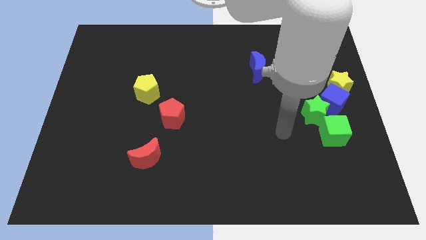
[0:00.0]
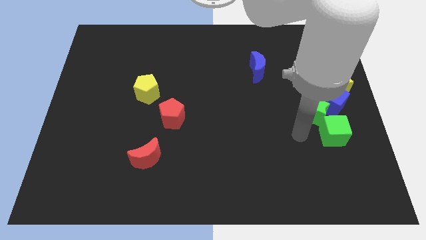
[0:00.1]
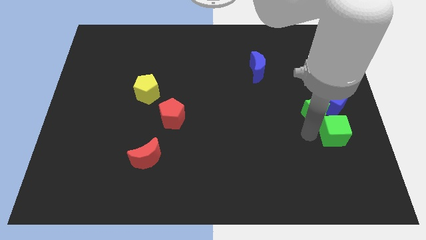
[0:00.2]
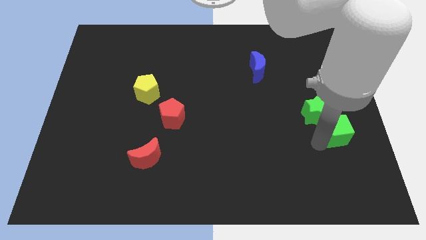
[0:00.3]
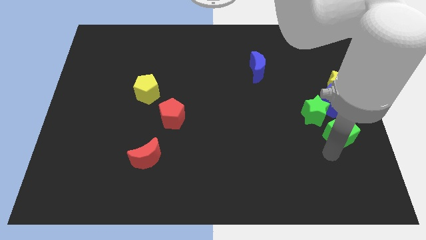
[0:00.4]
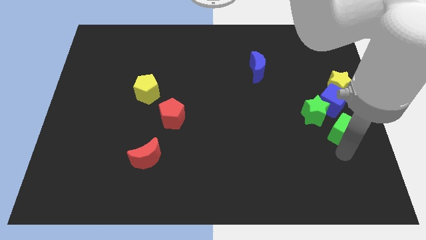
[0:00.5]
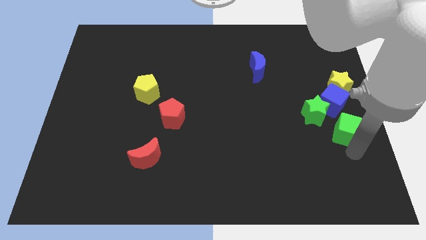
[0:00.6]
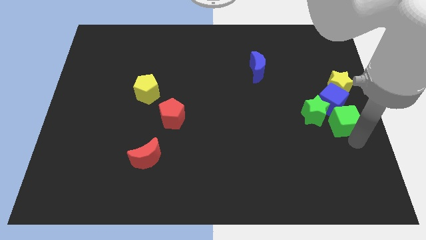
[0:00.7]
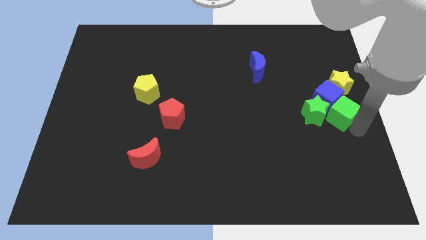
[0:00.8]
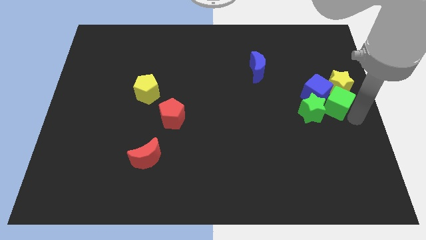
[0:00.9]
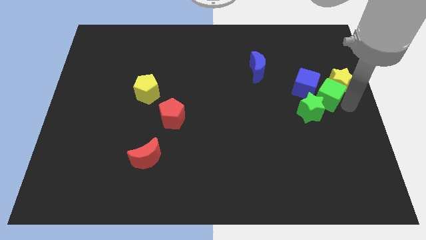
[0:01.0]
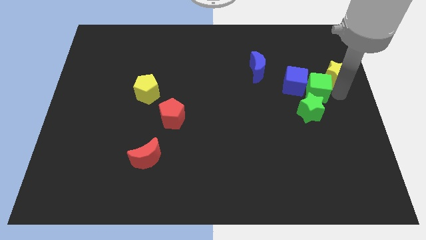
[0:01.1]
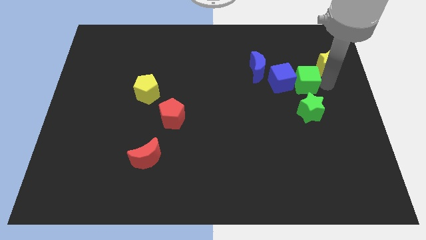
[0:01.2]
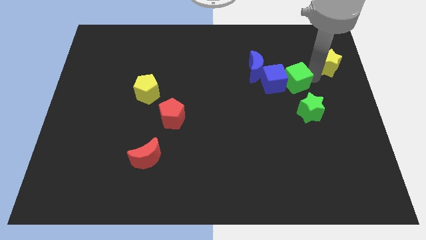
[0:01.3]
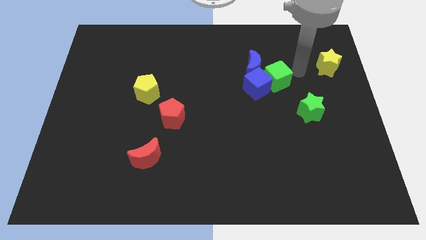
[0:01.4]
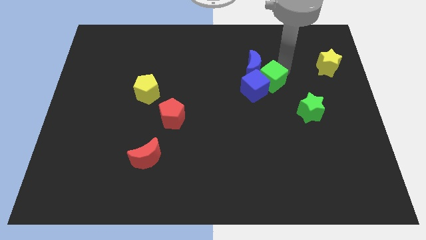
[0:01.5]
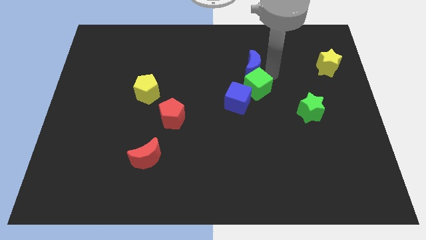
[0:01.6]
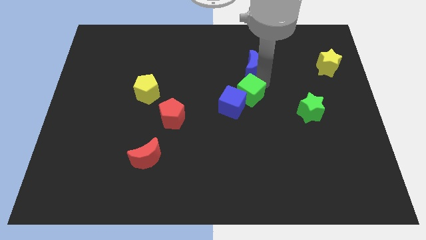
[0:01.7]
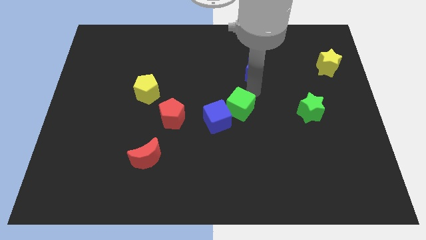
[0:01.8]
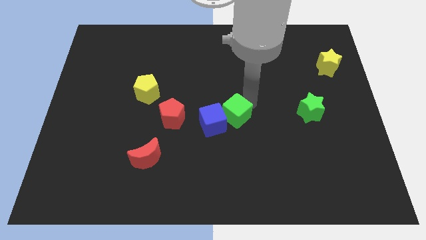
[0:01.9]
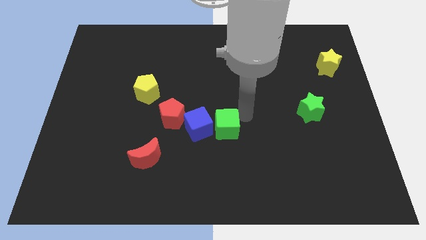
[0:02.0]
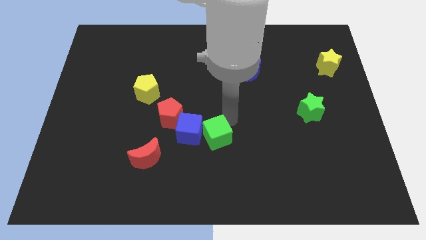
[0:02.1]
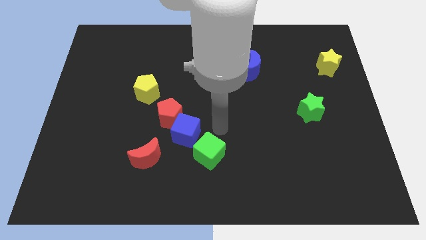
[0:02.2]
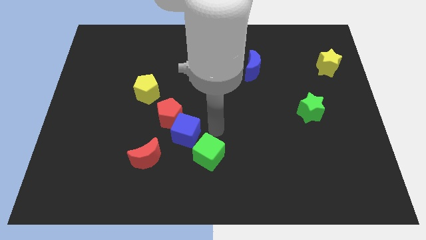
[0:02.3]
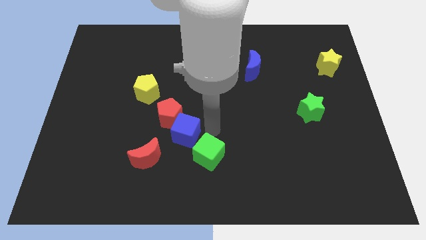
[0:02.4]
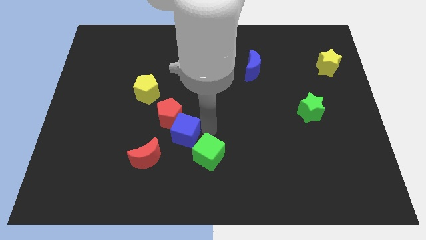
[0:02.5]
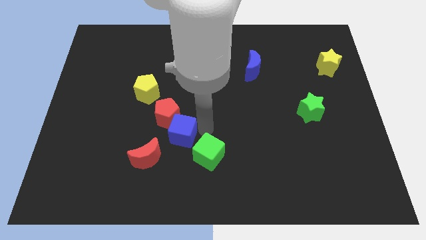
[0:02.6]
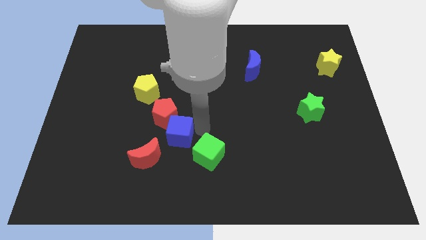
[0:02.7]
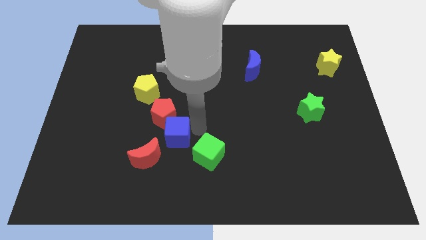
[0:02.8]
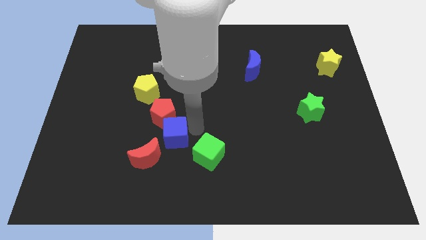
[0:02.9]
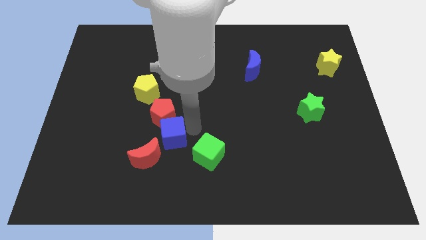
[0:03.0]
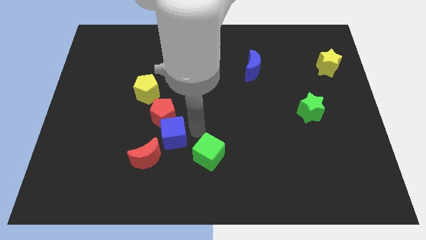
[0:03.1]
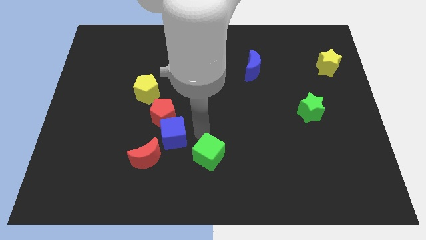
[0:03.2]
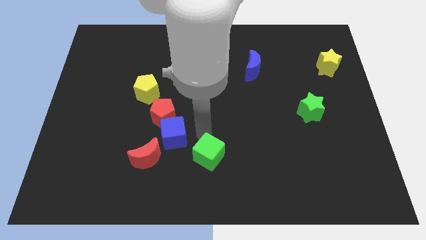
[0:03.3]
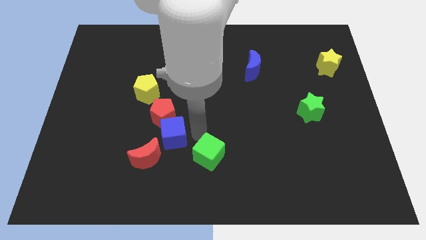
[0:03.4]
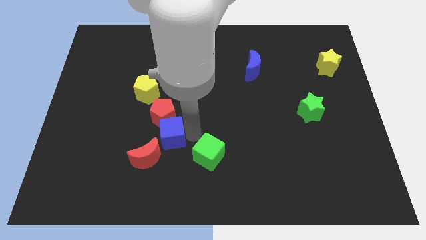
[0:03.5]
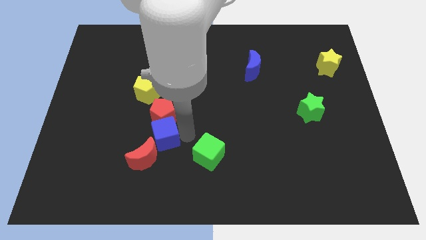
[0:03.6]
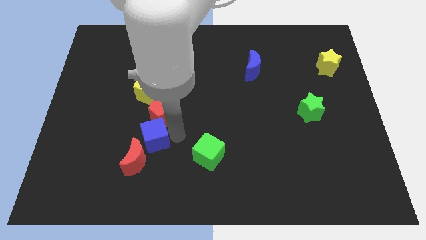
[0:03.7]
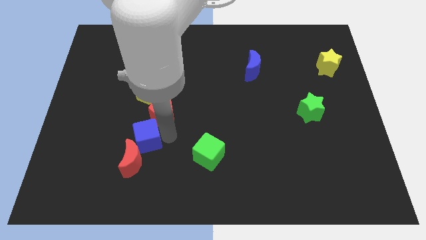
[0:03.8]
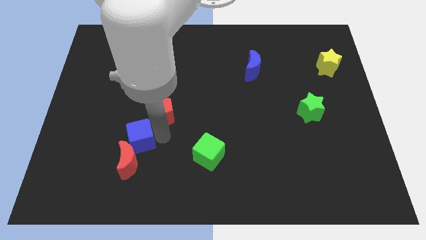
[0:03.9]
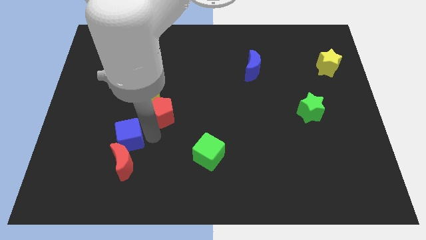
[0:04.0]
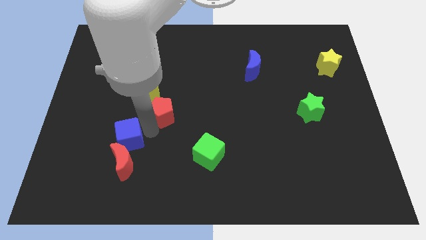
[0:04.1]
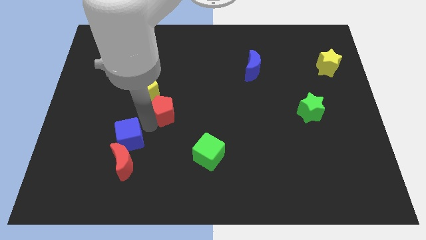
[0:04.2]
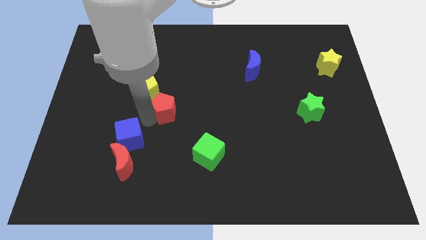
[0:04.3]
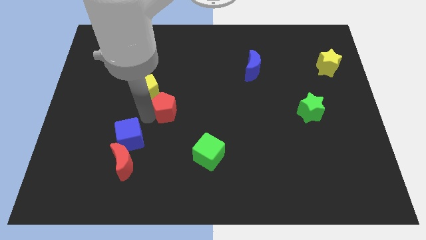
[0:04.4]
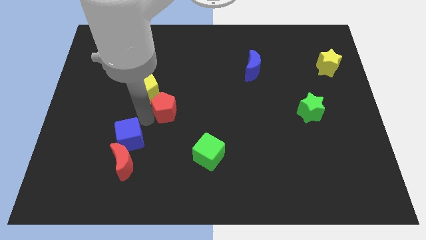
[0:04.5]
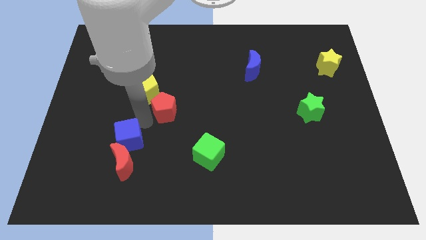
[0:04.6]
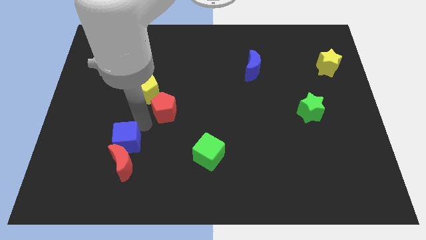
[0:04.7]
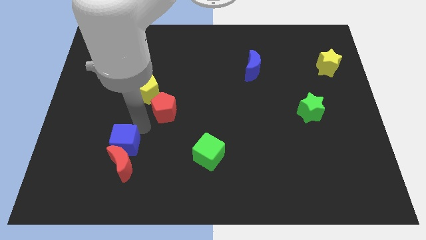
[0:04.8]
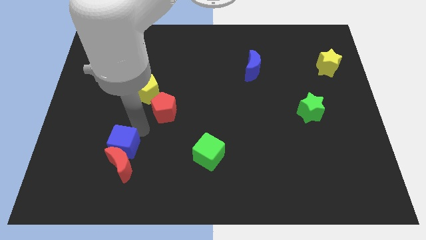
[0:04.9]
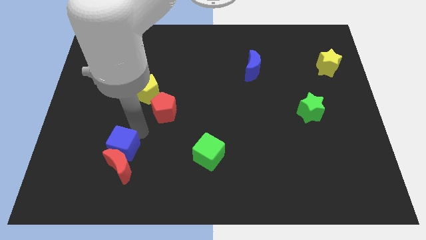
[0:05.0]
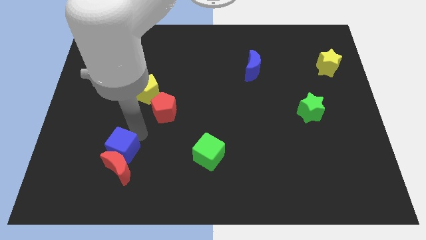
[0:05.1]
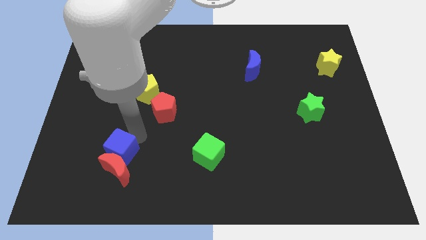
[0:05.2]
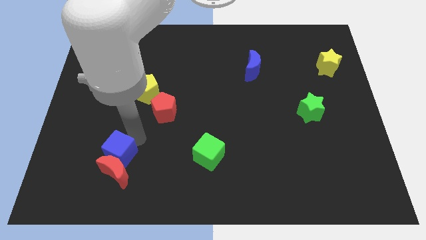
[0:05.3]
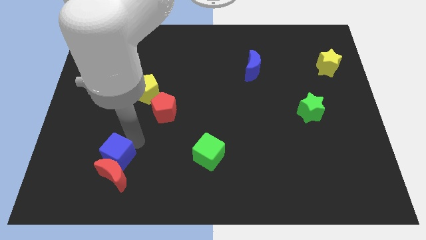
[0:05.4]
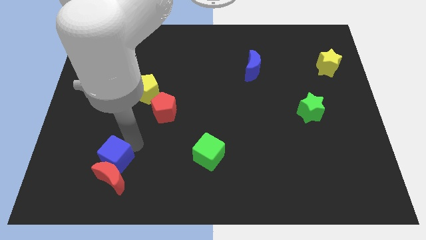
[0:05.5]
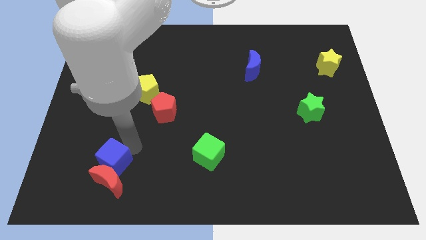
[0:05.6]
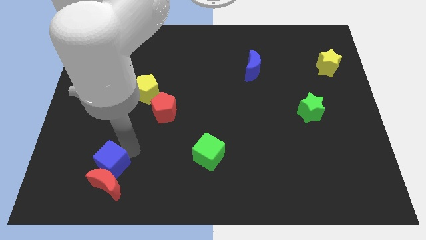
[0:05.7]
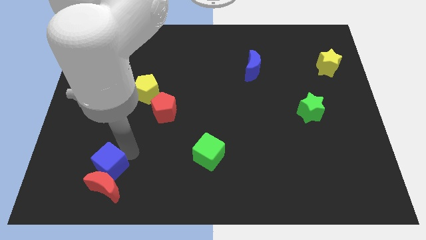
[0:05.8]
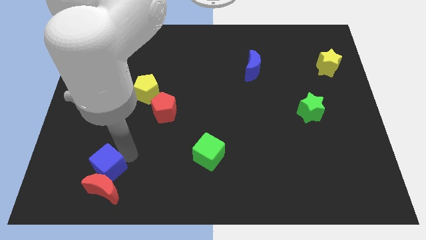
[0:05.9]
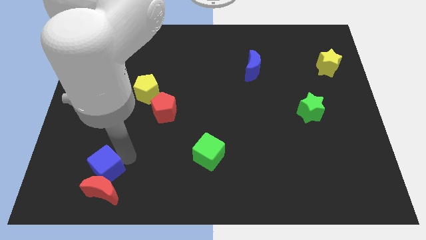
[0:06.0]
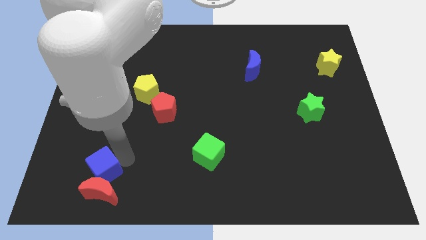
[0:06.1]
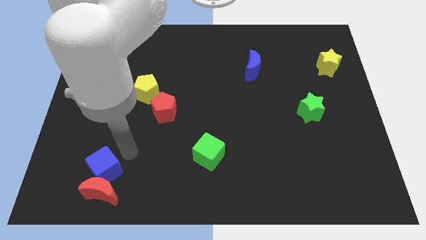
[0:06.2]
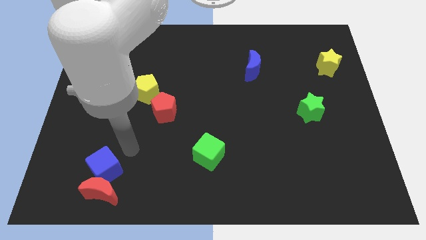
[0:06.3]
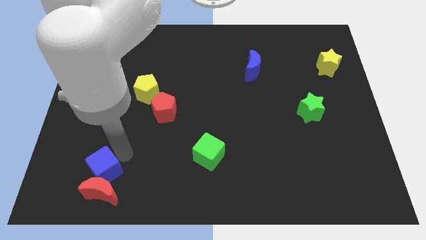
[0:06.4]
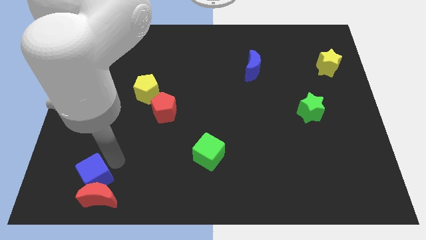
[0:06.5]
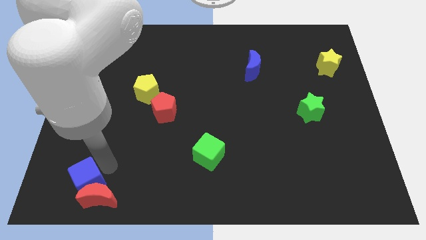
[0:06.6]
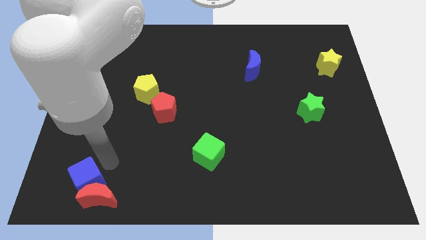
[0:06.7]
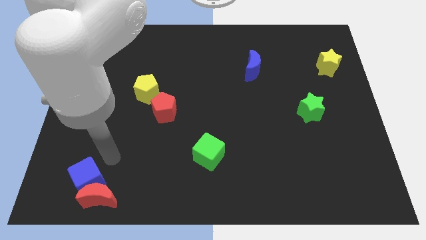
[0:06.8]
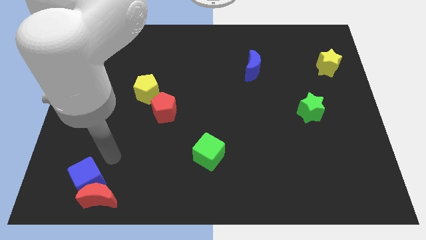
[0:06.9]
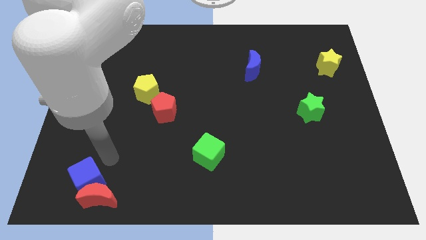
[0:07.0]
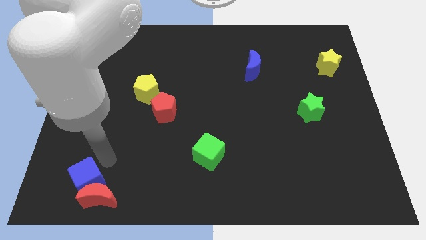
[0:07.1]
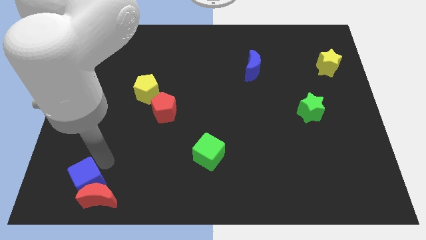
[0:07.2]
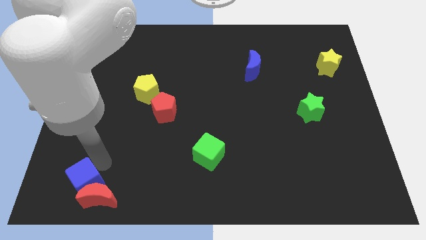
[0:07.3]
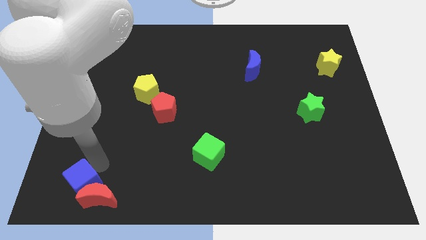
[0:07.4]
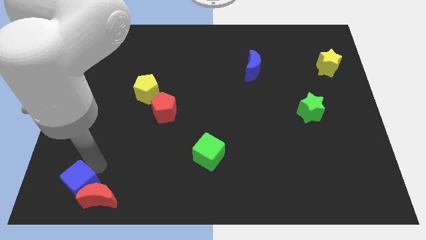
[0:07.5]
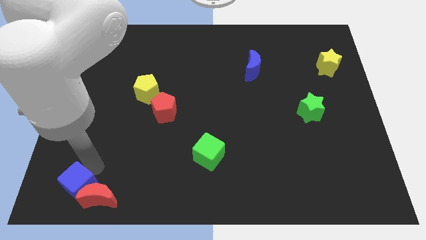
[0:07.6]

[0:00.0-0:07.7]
push the blue cube to the bottom left of the board
